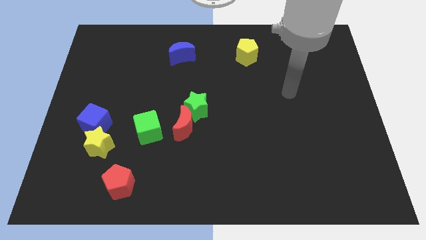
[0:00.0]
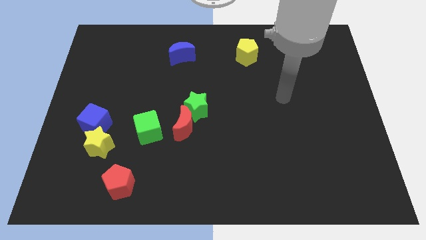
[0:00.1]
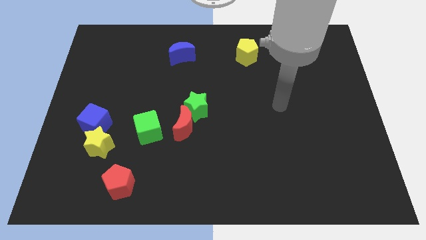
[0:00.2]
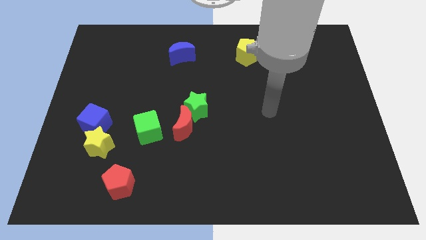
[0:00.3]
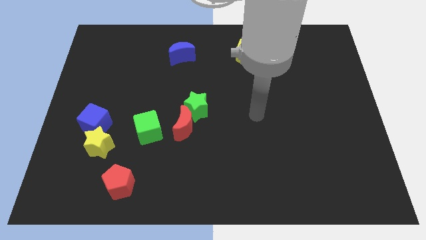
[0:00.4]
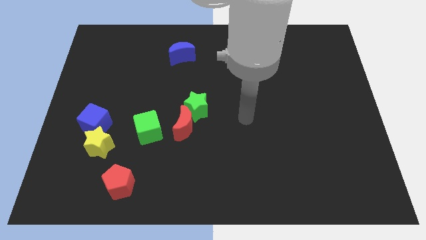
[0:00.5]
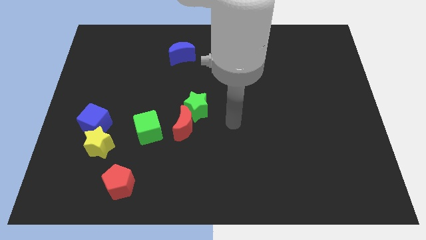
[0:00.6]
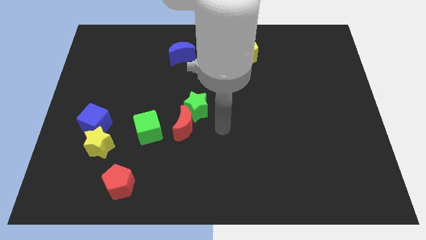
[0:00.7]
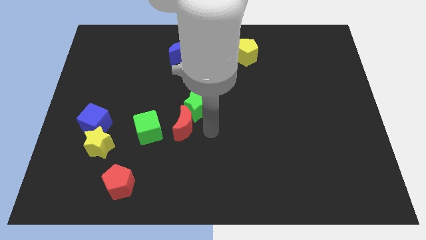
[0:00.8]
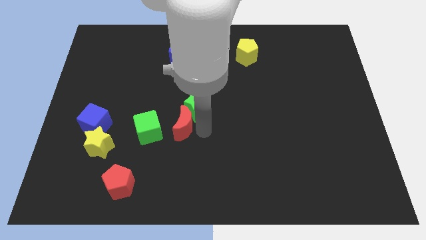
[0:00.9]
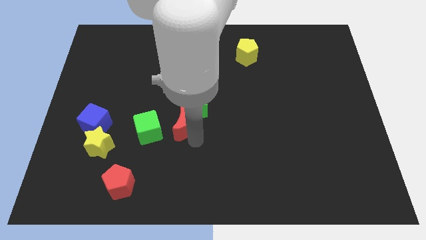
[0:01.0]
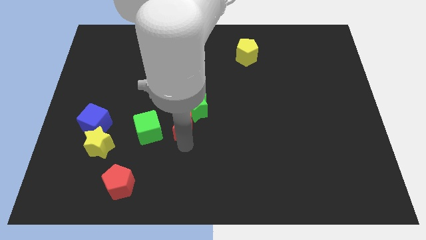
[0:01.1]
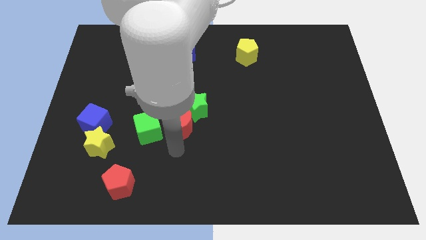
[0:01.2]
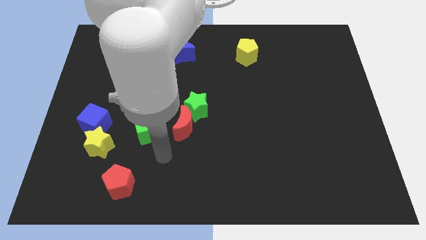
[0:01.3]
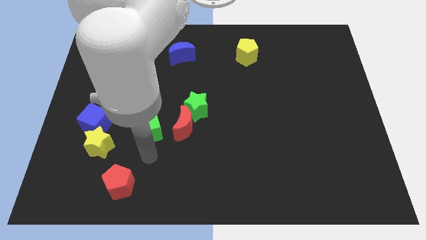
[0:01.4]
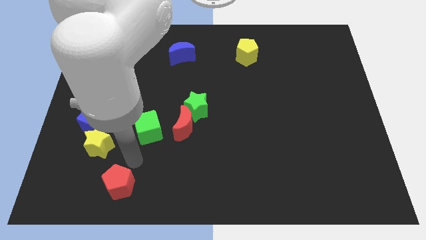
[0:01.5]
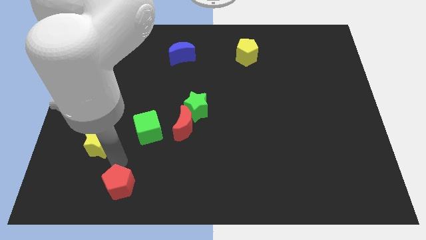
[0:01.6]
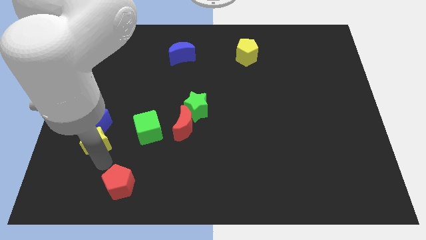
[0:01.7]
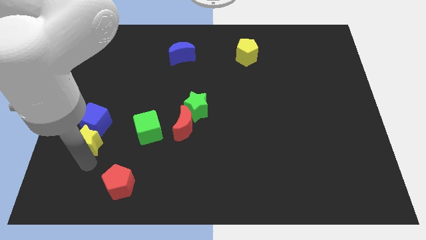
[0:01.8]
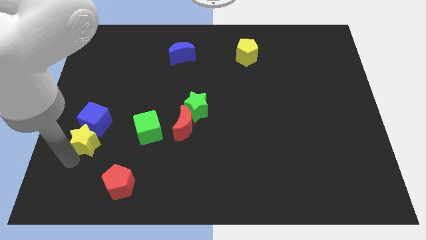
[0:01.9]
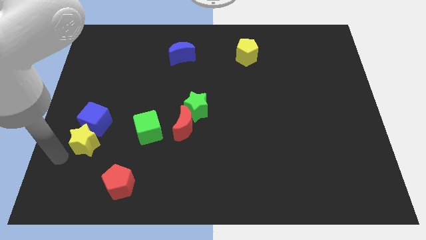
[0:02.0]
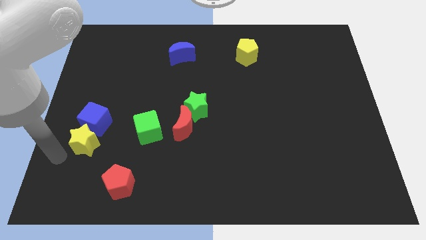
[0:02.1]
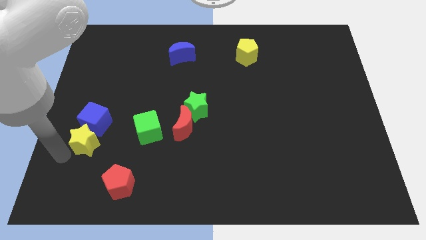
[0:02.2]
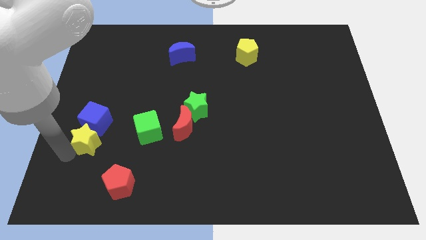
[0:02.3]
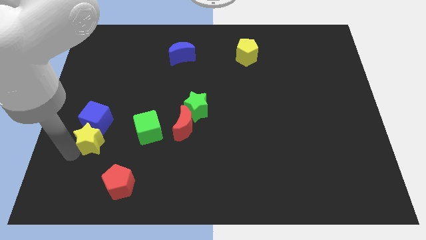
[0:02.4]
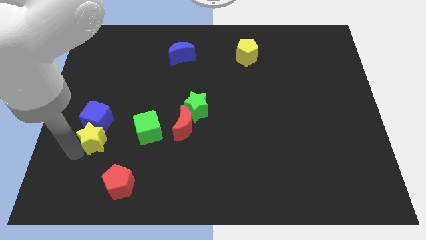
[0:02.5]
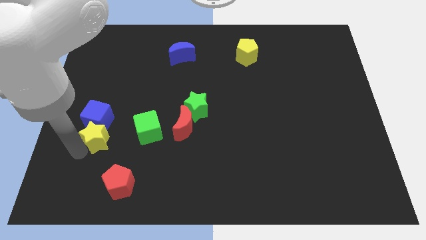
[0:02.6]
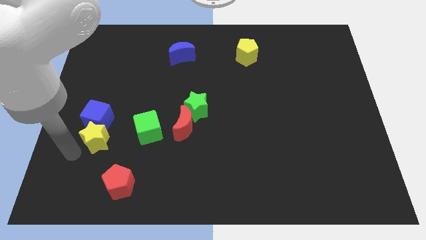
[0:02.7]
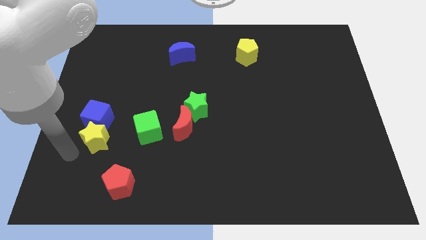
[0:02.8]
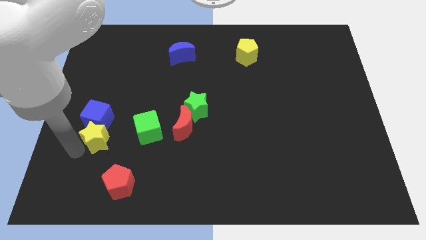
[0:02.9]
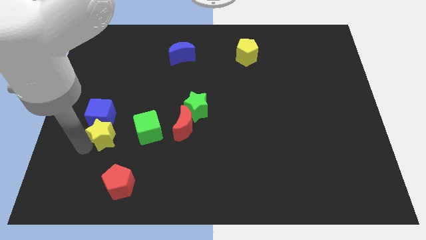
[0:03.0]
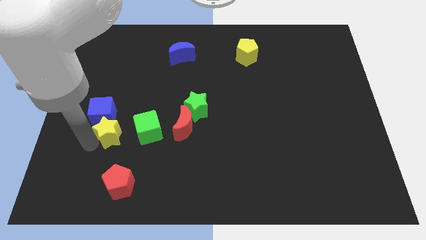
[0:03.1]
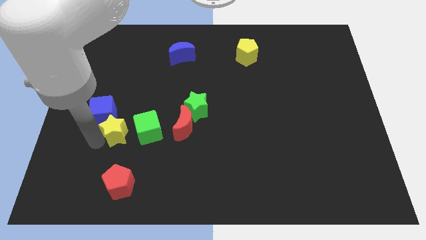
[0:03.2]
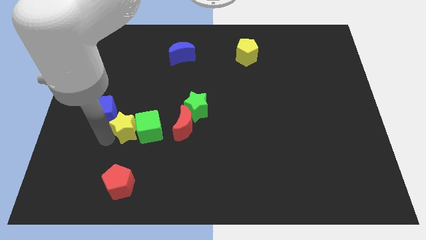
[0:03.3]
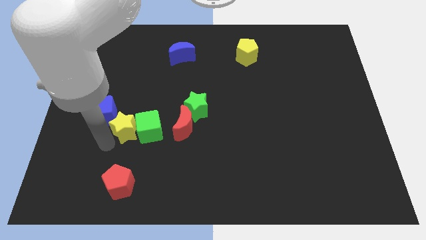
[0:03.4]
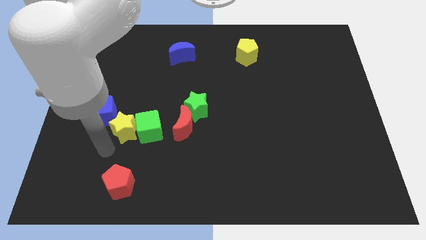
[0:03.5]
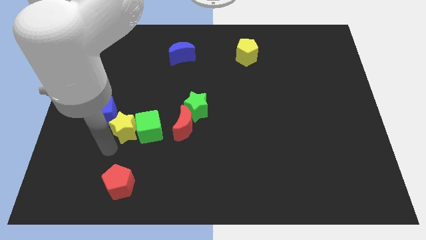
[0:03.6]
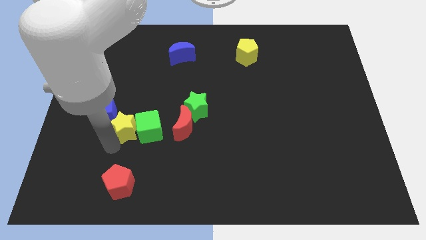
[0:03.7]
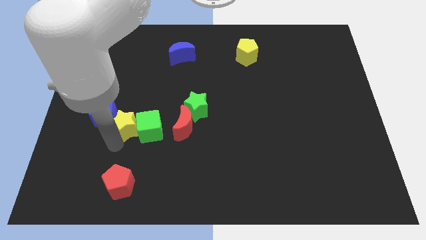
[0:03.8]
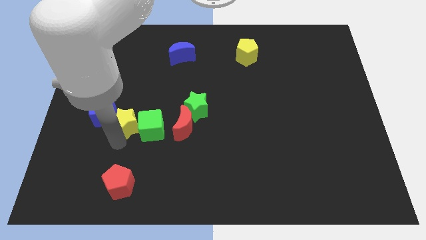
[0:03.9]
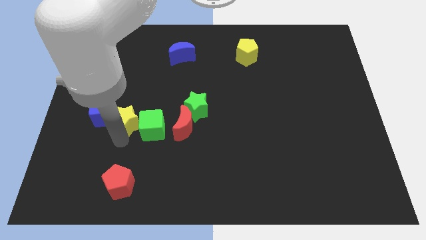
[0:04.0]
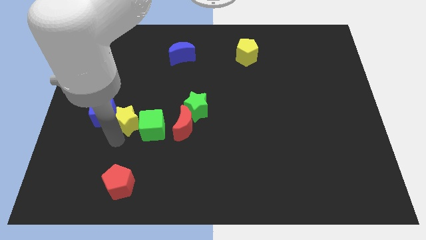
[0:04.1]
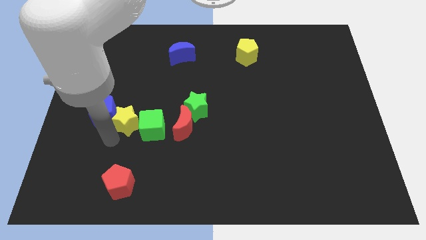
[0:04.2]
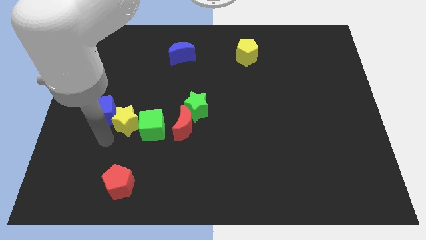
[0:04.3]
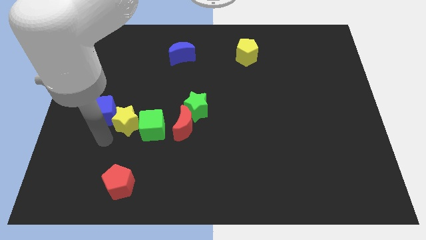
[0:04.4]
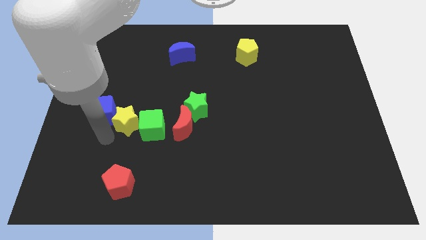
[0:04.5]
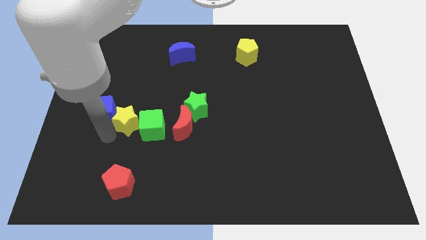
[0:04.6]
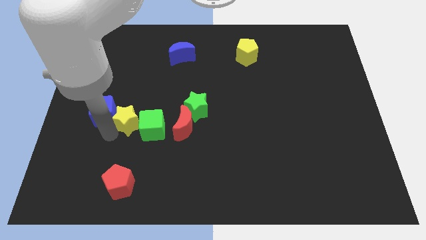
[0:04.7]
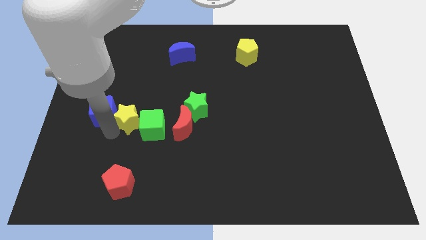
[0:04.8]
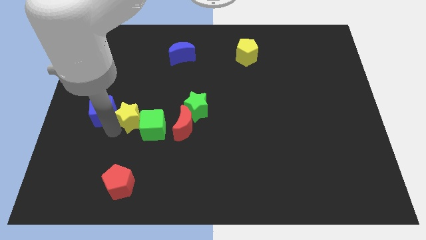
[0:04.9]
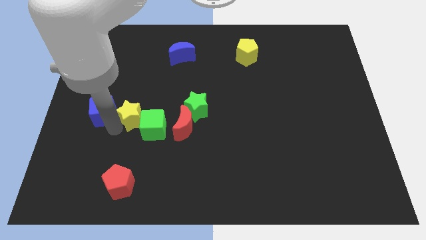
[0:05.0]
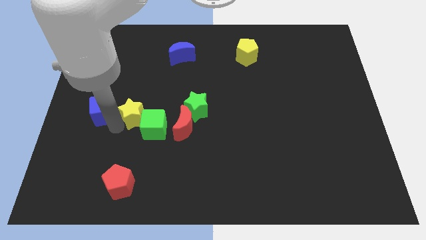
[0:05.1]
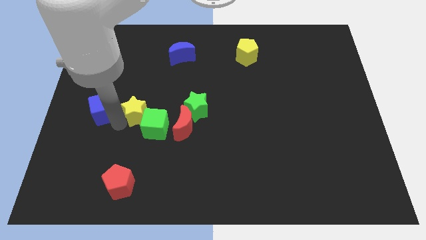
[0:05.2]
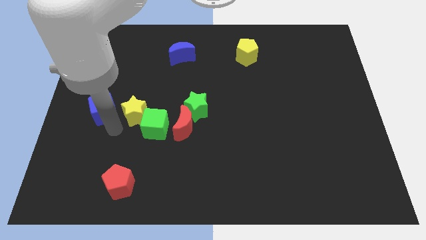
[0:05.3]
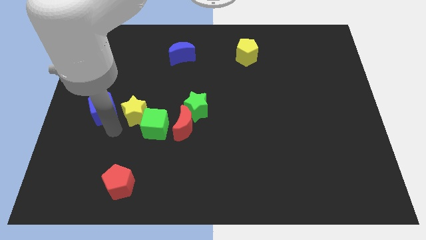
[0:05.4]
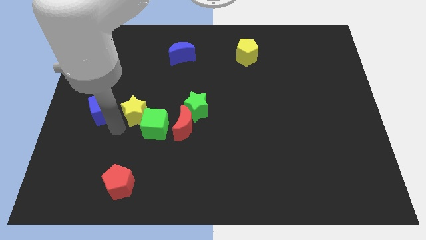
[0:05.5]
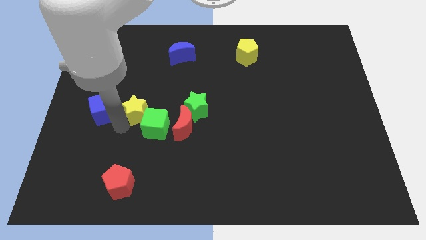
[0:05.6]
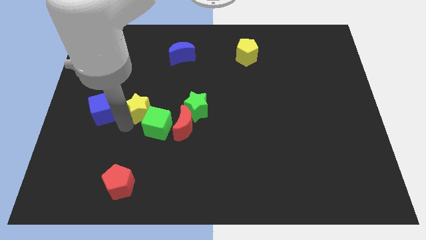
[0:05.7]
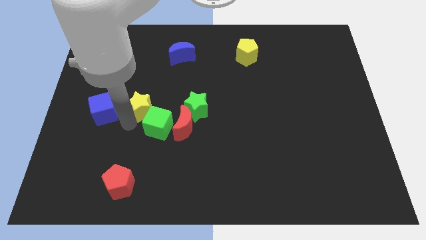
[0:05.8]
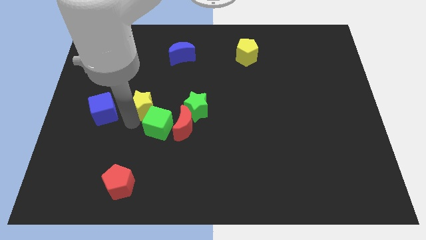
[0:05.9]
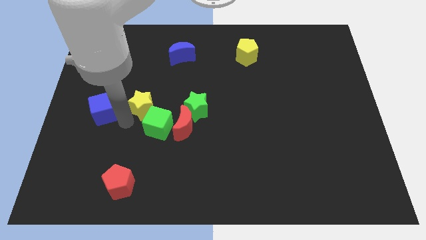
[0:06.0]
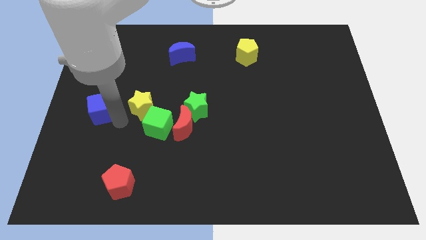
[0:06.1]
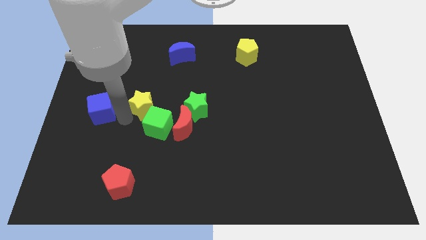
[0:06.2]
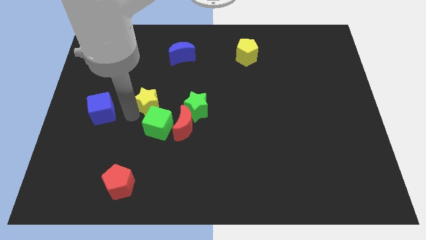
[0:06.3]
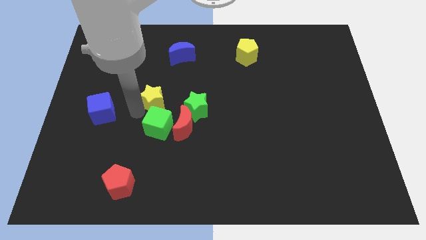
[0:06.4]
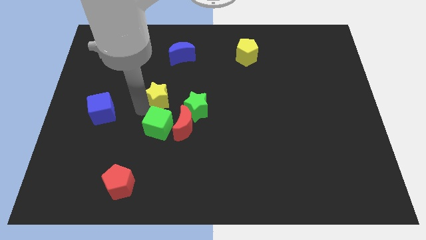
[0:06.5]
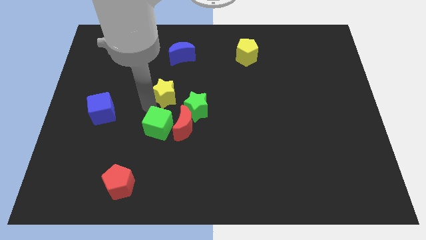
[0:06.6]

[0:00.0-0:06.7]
push the yellow star to the bottom of the blue moon
